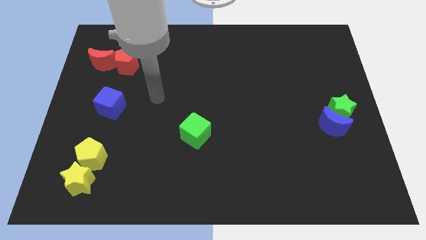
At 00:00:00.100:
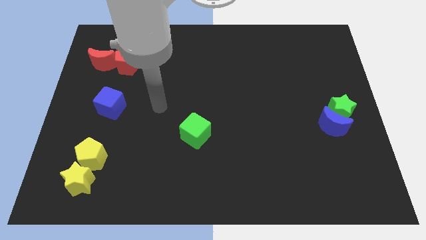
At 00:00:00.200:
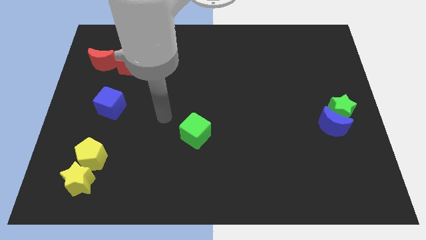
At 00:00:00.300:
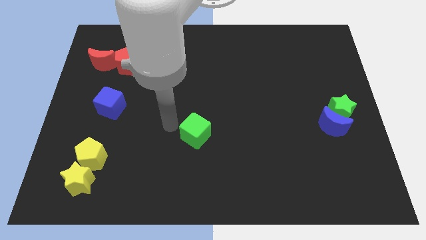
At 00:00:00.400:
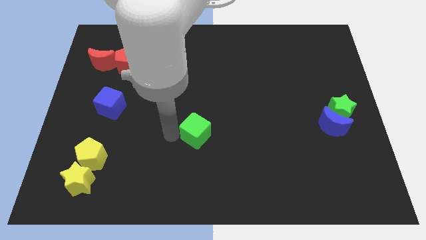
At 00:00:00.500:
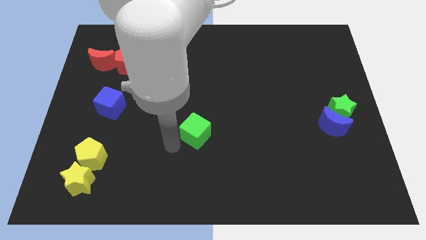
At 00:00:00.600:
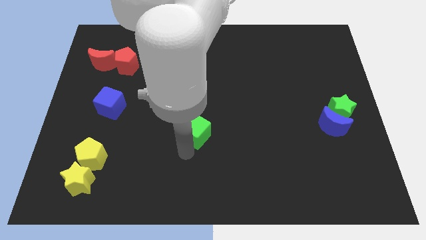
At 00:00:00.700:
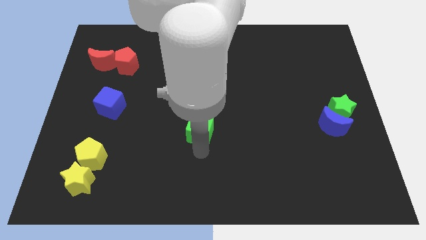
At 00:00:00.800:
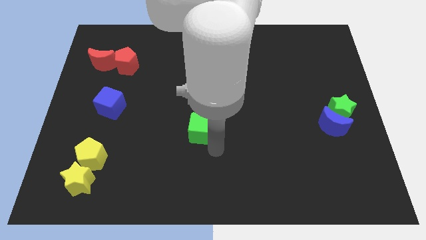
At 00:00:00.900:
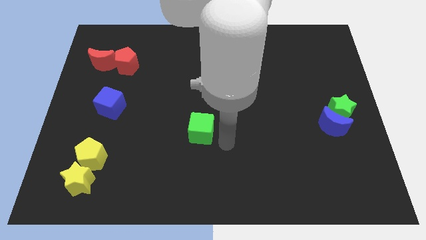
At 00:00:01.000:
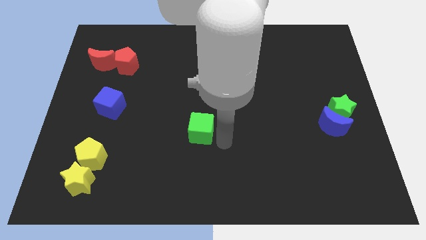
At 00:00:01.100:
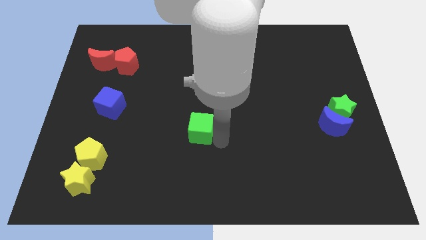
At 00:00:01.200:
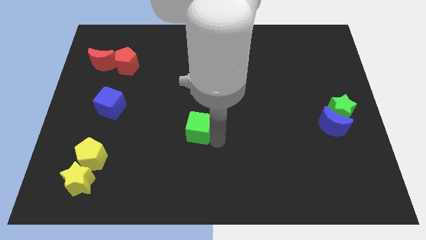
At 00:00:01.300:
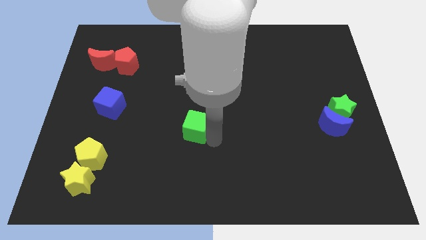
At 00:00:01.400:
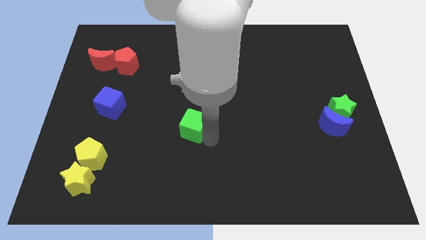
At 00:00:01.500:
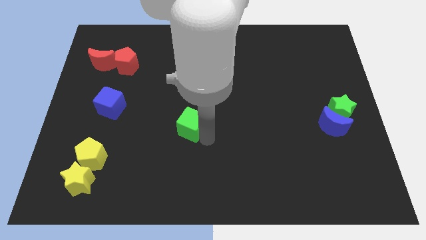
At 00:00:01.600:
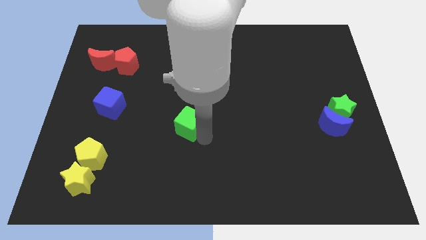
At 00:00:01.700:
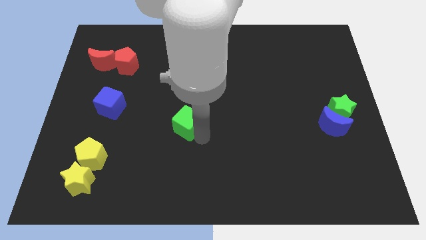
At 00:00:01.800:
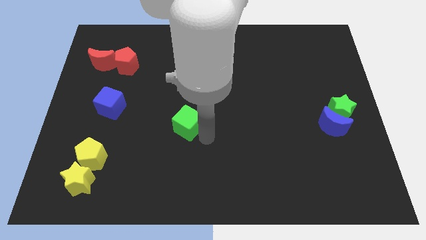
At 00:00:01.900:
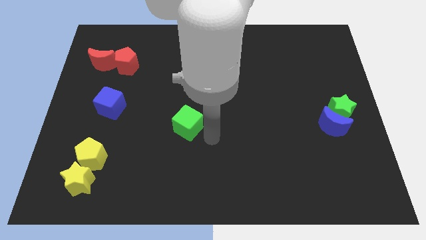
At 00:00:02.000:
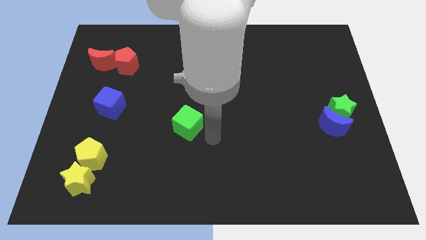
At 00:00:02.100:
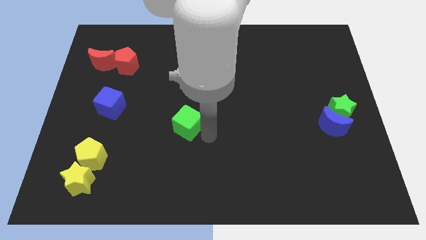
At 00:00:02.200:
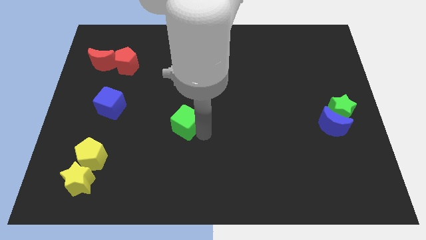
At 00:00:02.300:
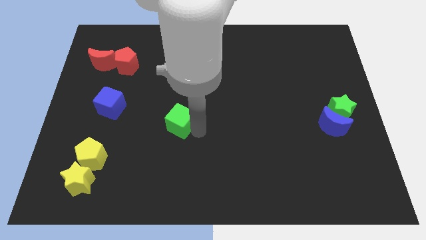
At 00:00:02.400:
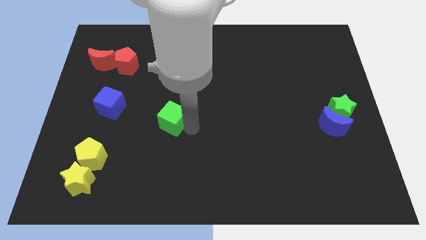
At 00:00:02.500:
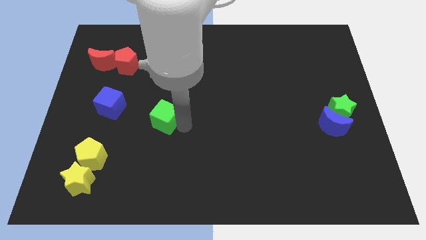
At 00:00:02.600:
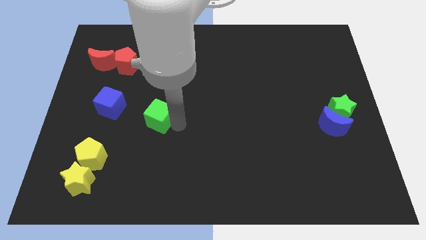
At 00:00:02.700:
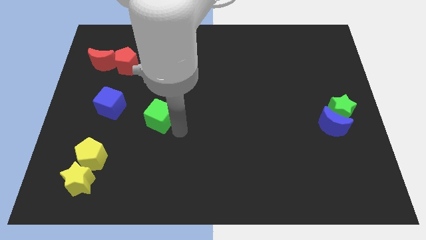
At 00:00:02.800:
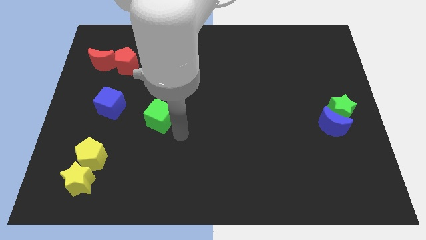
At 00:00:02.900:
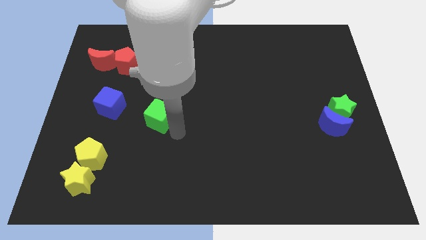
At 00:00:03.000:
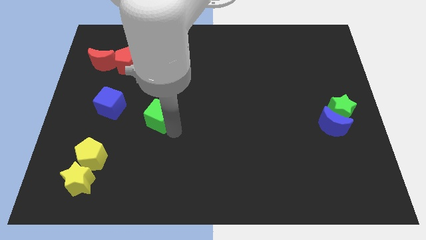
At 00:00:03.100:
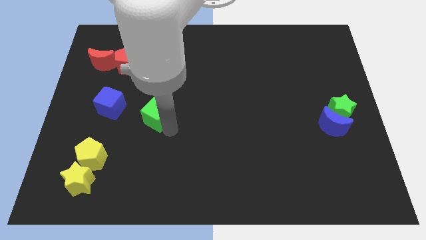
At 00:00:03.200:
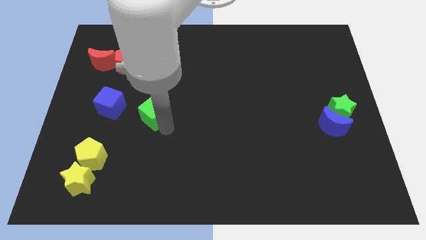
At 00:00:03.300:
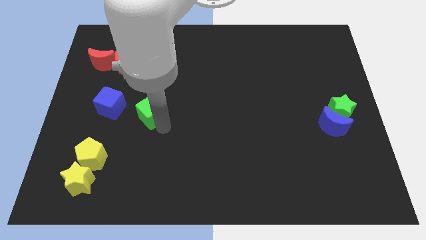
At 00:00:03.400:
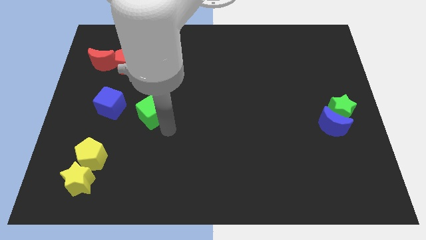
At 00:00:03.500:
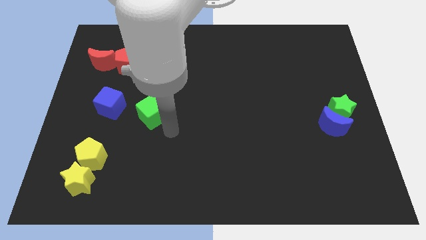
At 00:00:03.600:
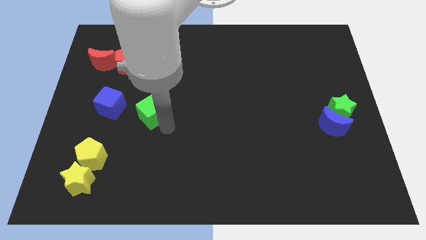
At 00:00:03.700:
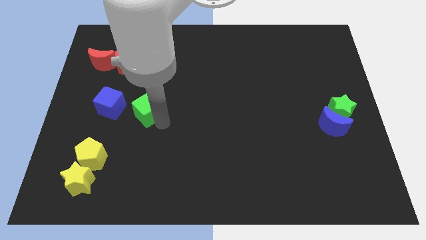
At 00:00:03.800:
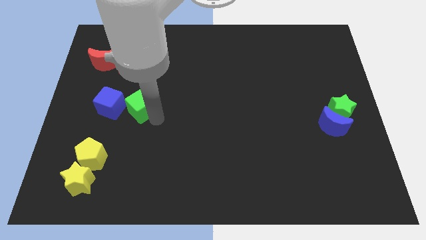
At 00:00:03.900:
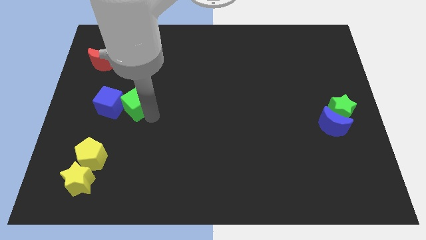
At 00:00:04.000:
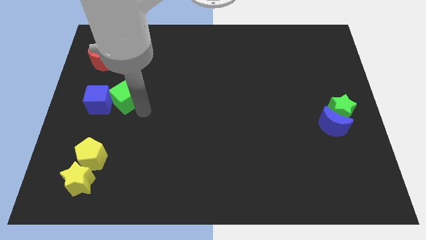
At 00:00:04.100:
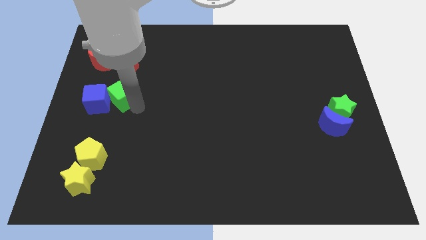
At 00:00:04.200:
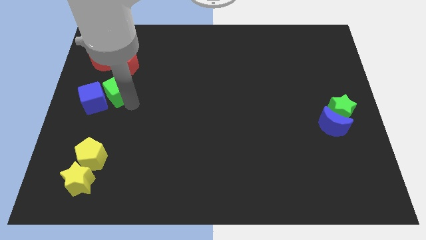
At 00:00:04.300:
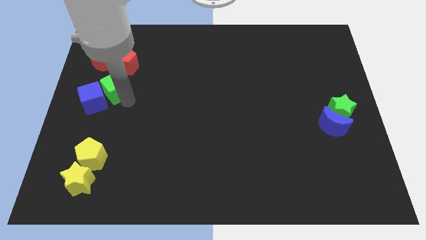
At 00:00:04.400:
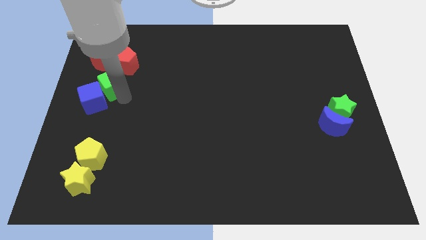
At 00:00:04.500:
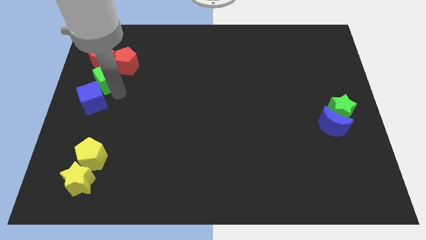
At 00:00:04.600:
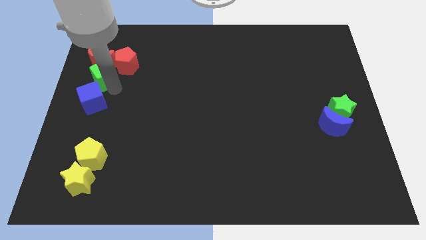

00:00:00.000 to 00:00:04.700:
push the green cube close to the red moon

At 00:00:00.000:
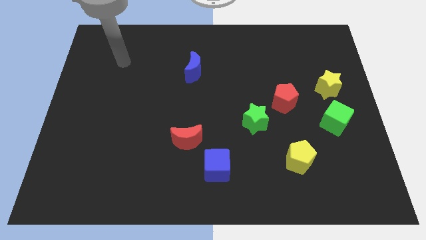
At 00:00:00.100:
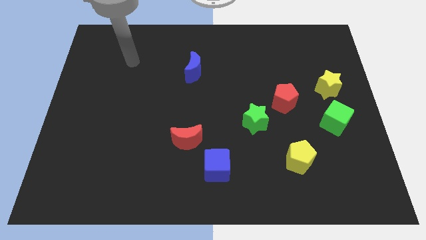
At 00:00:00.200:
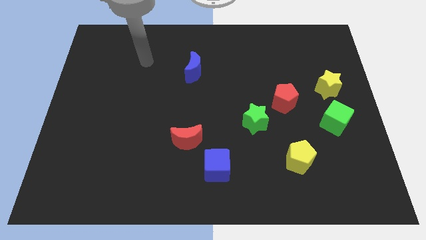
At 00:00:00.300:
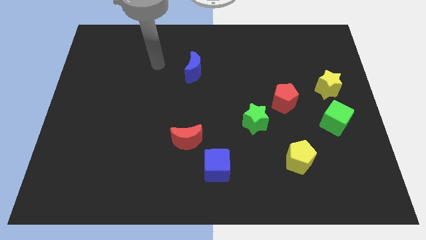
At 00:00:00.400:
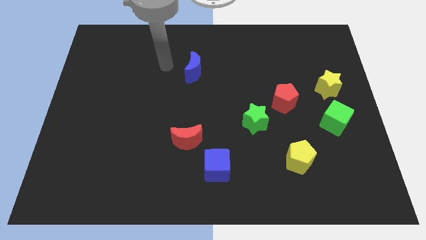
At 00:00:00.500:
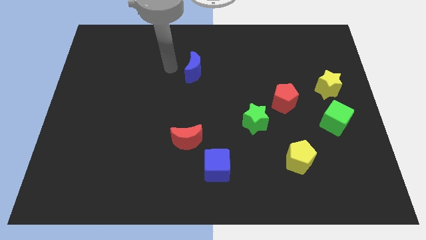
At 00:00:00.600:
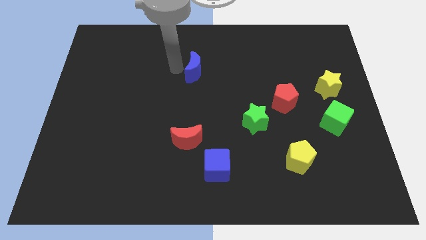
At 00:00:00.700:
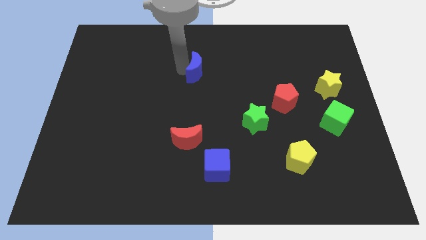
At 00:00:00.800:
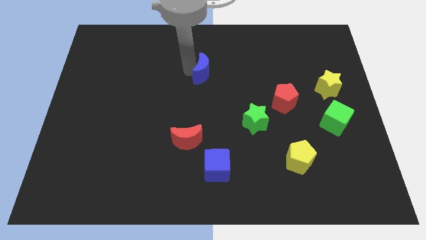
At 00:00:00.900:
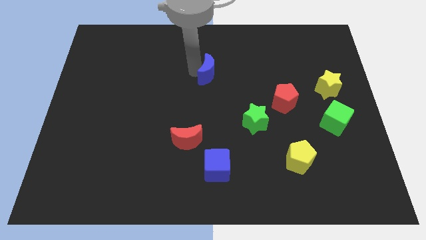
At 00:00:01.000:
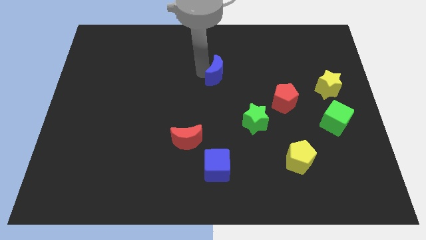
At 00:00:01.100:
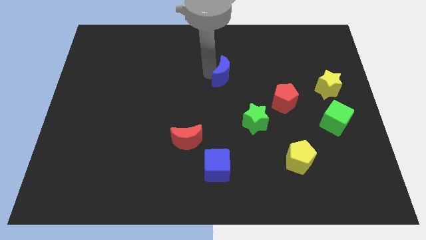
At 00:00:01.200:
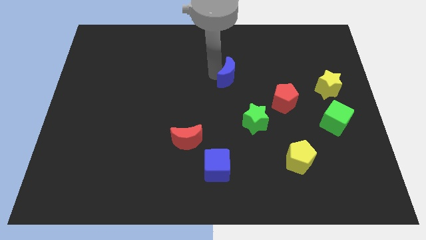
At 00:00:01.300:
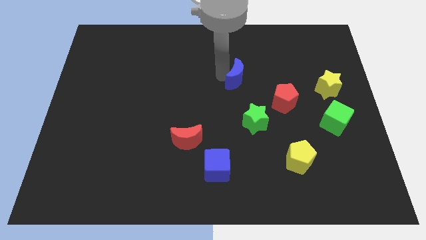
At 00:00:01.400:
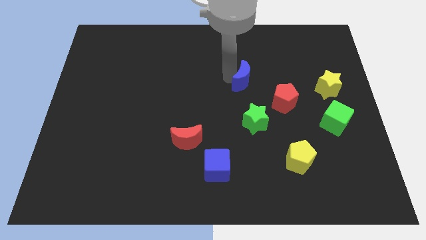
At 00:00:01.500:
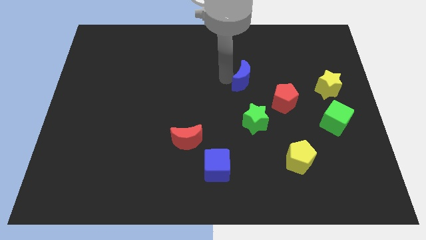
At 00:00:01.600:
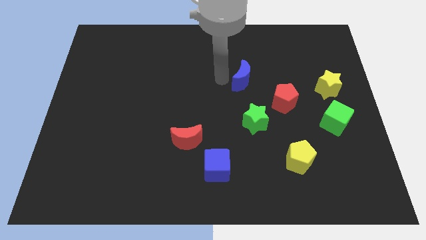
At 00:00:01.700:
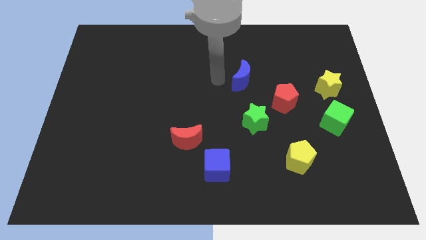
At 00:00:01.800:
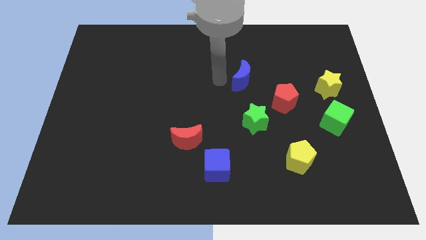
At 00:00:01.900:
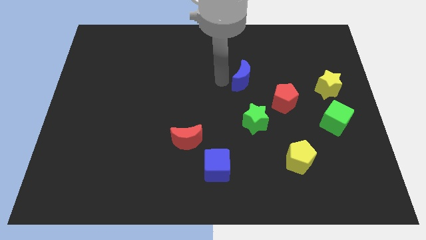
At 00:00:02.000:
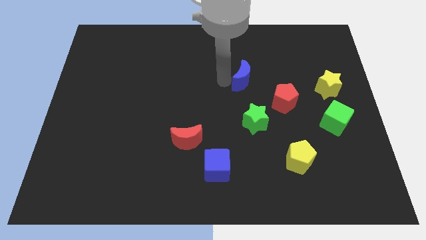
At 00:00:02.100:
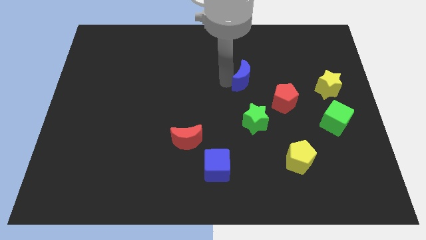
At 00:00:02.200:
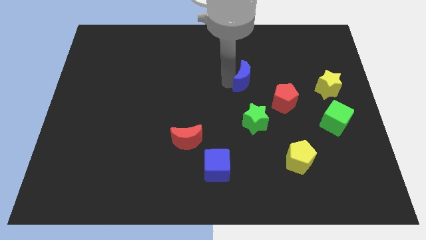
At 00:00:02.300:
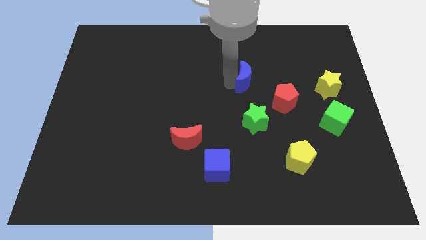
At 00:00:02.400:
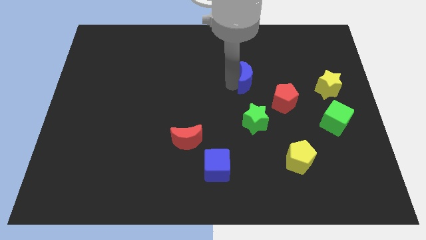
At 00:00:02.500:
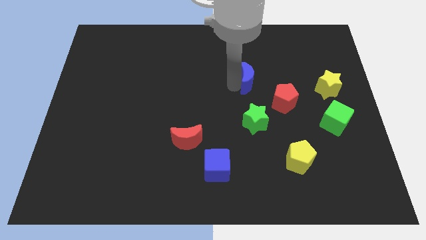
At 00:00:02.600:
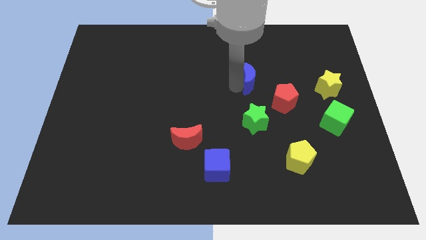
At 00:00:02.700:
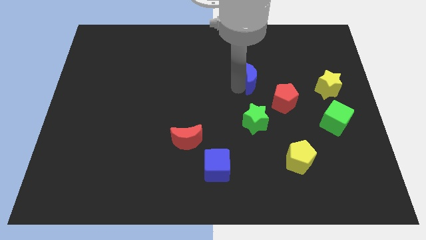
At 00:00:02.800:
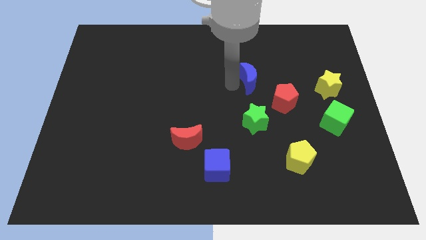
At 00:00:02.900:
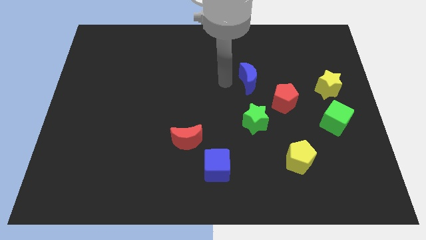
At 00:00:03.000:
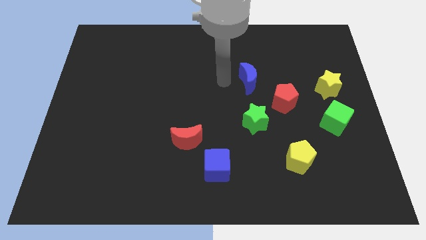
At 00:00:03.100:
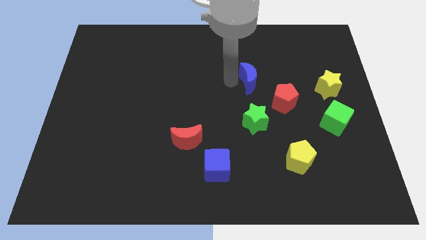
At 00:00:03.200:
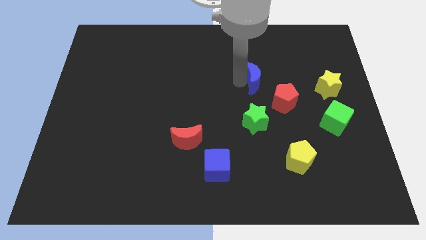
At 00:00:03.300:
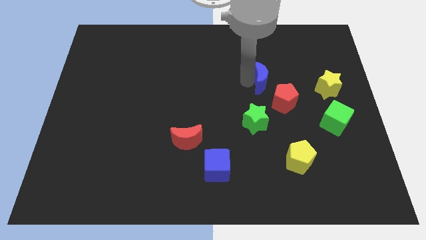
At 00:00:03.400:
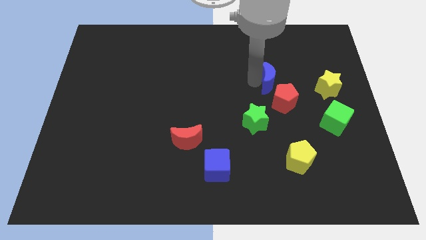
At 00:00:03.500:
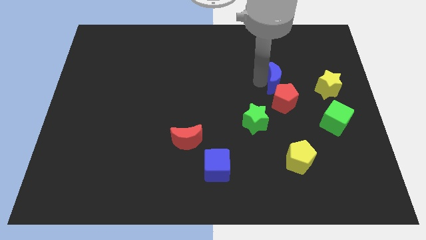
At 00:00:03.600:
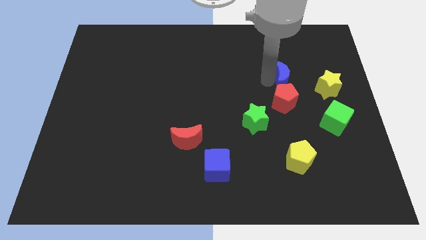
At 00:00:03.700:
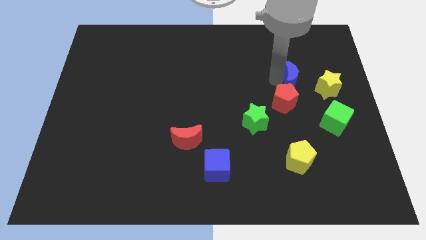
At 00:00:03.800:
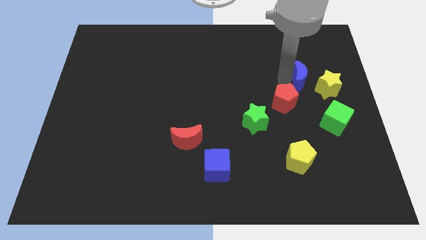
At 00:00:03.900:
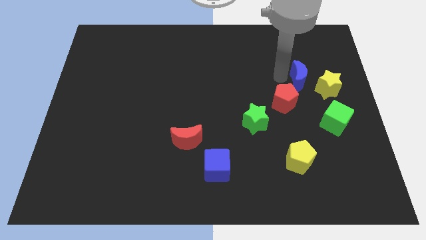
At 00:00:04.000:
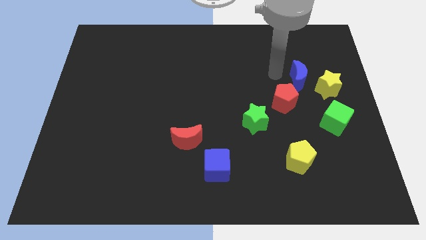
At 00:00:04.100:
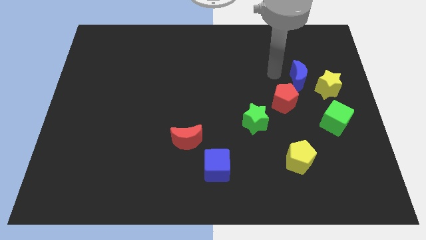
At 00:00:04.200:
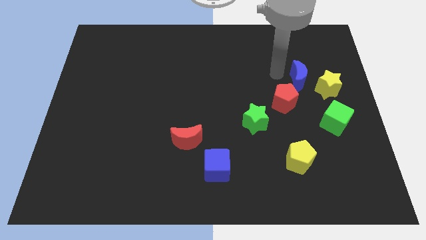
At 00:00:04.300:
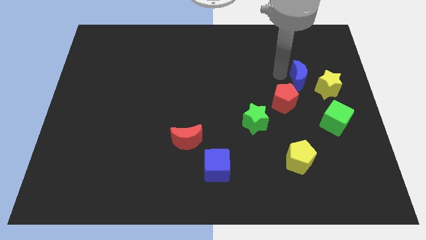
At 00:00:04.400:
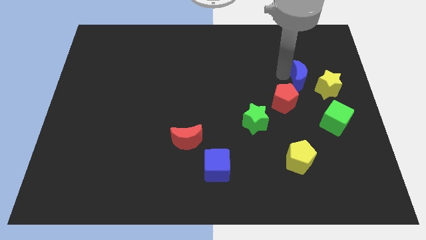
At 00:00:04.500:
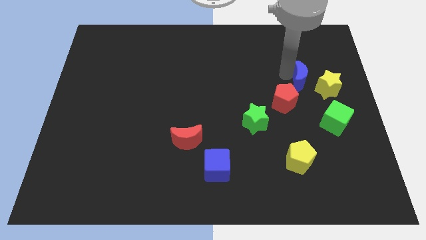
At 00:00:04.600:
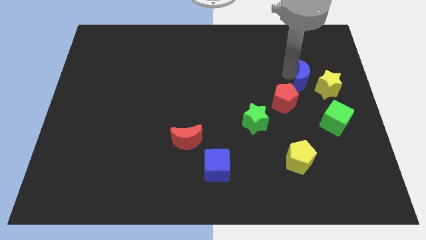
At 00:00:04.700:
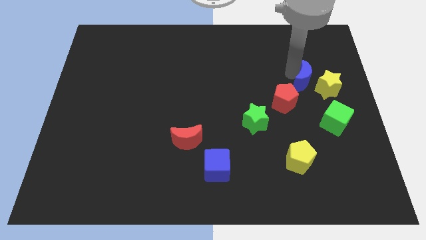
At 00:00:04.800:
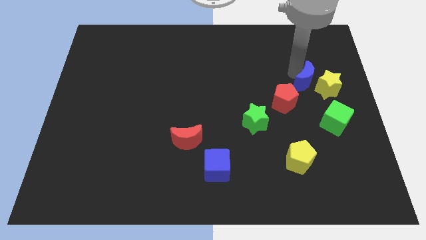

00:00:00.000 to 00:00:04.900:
move the blue moon to the yellow star
